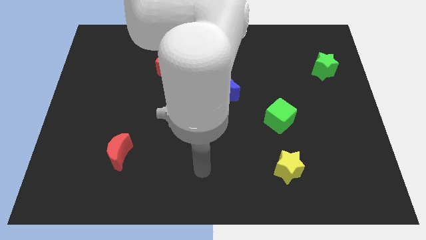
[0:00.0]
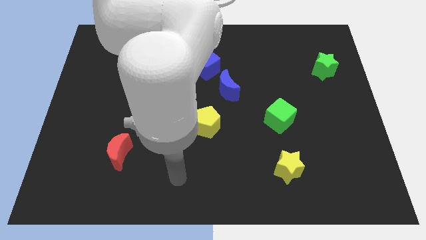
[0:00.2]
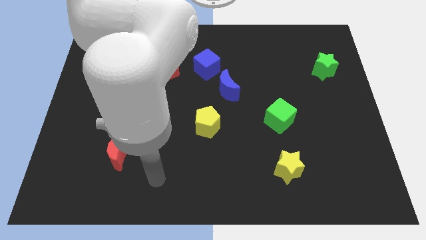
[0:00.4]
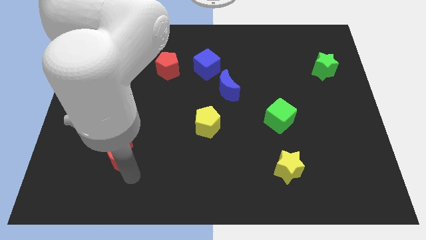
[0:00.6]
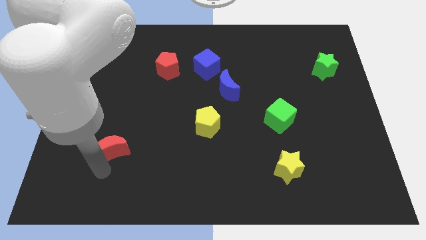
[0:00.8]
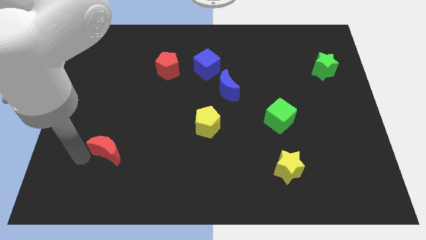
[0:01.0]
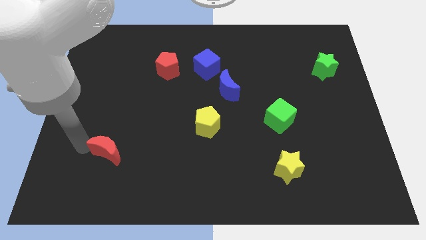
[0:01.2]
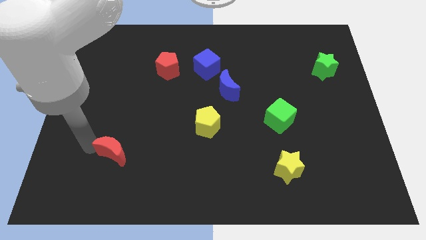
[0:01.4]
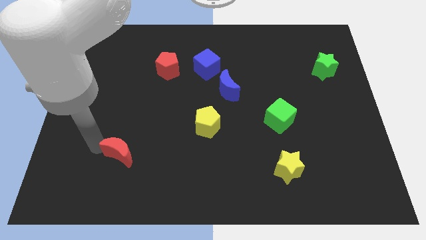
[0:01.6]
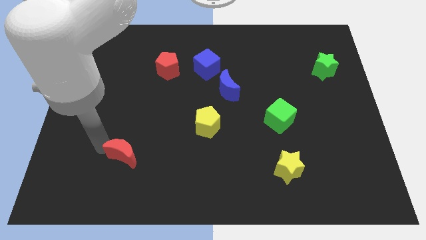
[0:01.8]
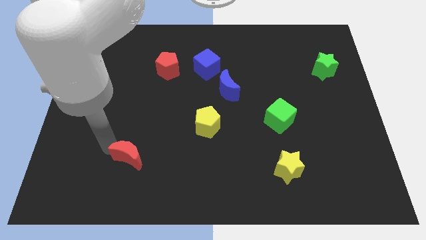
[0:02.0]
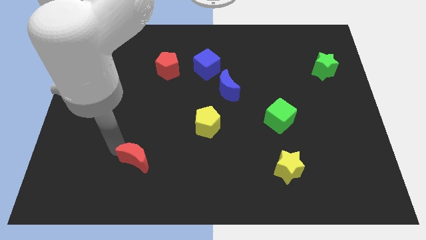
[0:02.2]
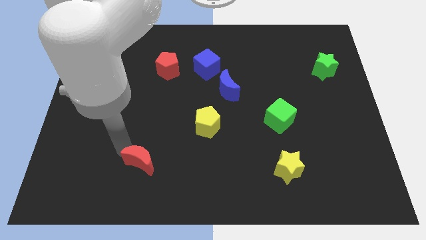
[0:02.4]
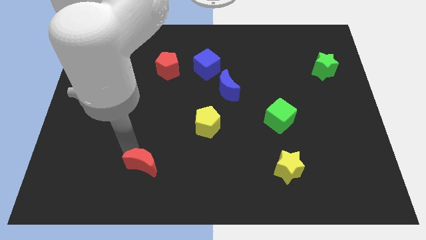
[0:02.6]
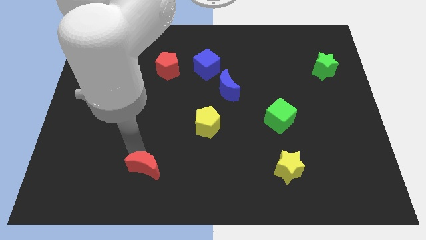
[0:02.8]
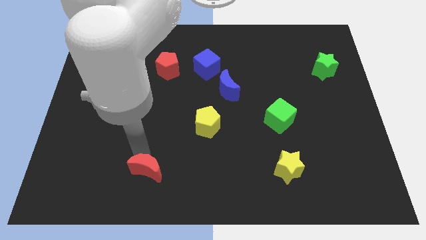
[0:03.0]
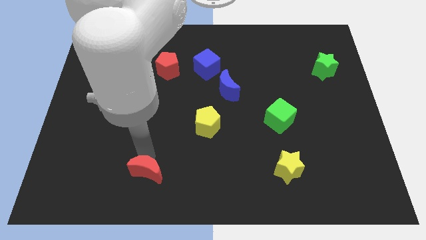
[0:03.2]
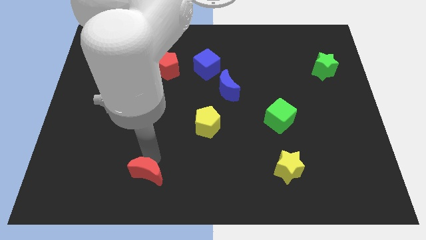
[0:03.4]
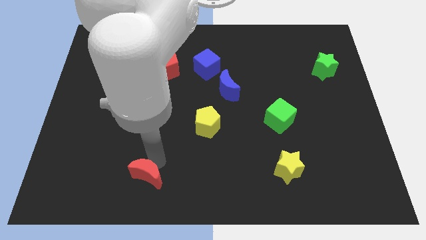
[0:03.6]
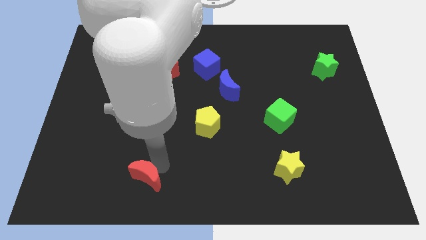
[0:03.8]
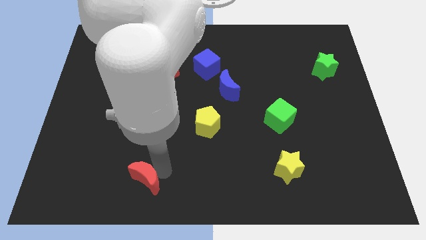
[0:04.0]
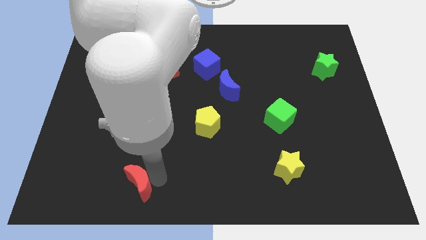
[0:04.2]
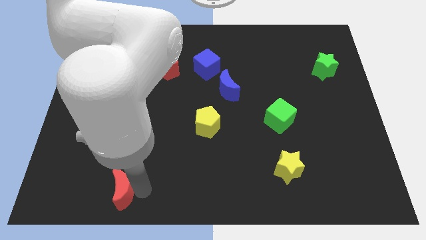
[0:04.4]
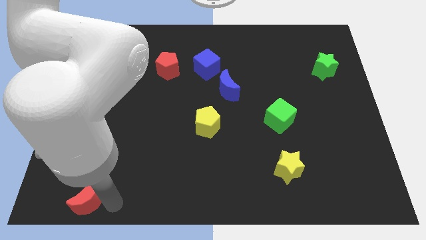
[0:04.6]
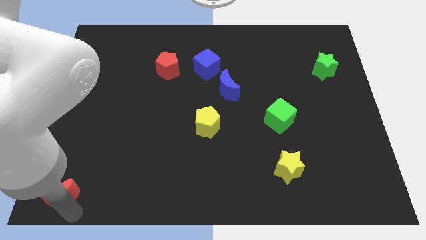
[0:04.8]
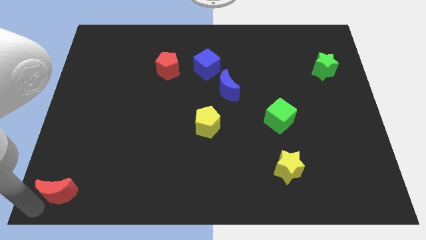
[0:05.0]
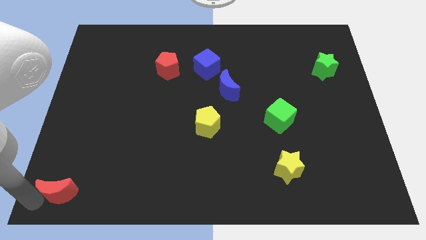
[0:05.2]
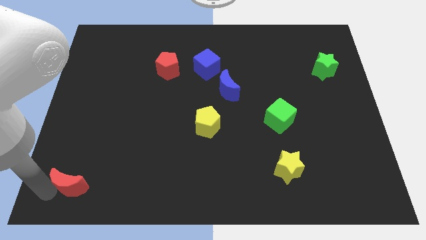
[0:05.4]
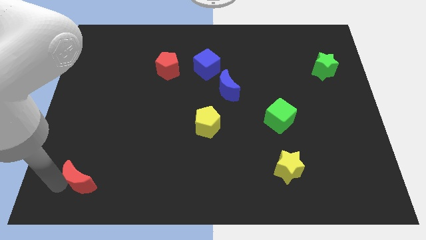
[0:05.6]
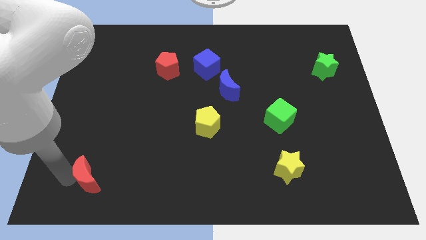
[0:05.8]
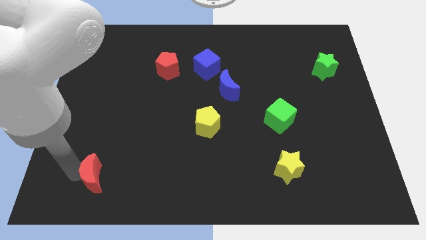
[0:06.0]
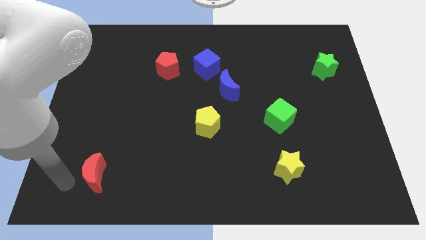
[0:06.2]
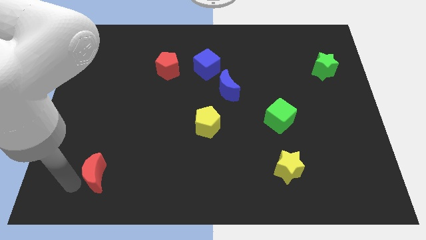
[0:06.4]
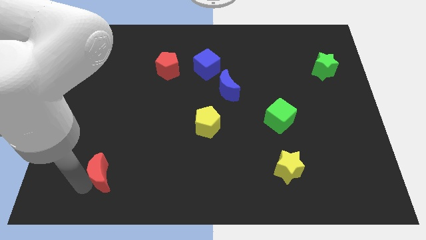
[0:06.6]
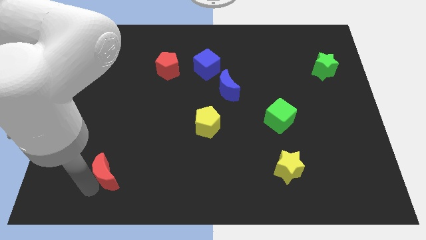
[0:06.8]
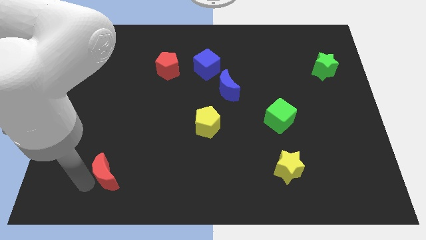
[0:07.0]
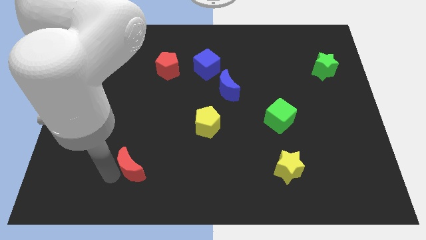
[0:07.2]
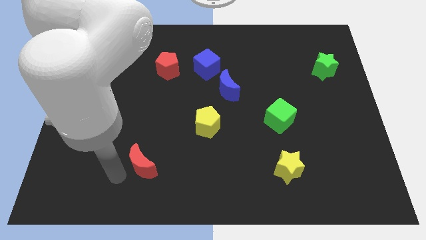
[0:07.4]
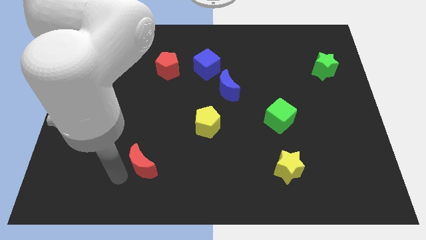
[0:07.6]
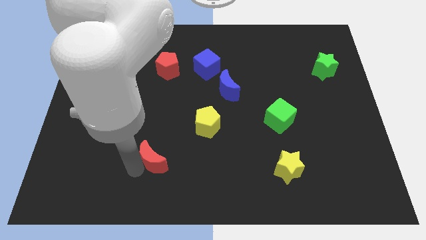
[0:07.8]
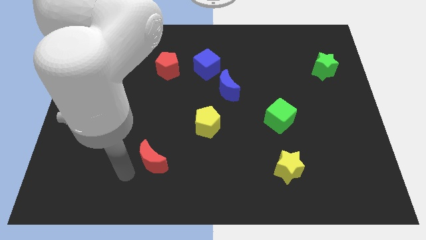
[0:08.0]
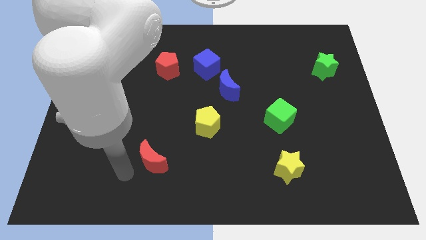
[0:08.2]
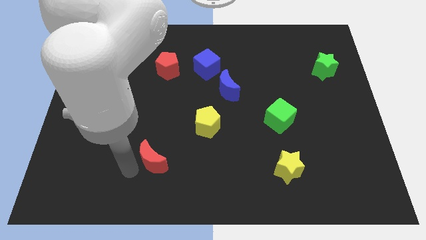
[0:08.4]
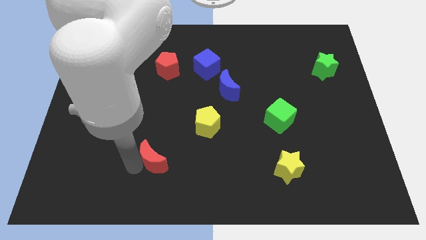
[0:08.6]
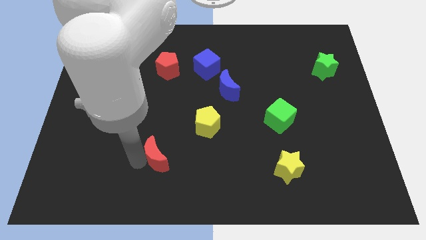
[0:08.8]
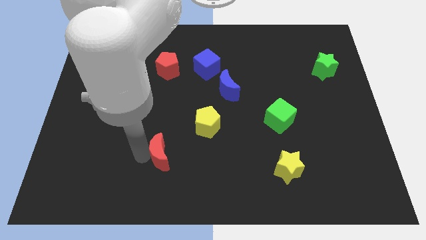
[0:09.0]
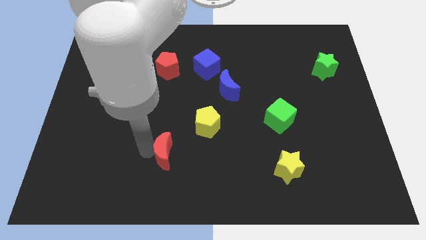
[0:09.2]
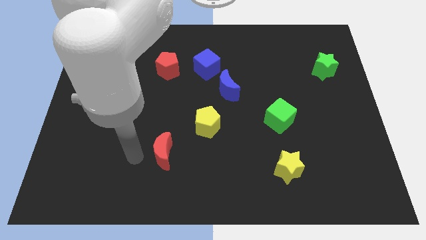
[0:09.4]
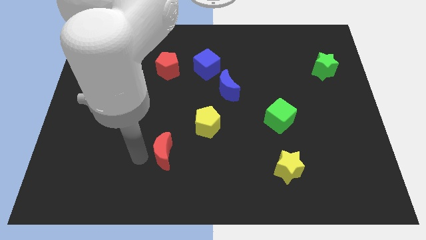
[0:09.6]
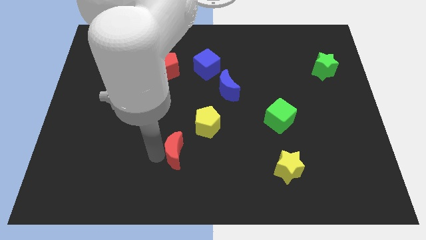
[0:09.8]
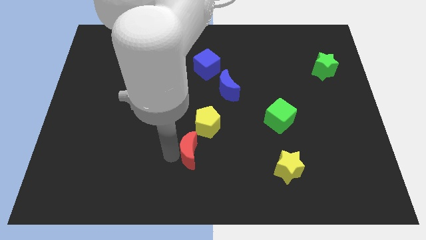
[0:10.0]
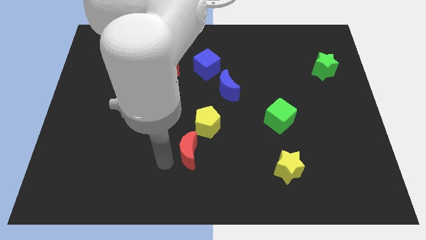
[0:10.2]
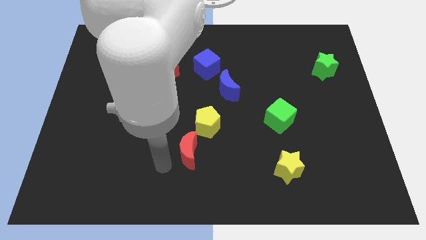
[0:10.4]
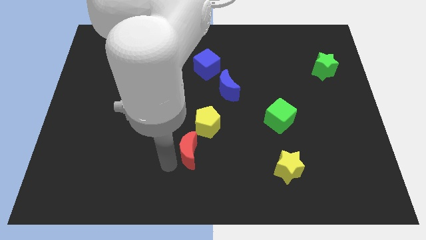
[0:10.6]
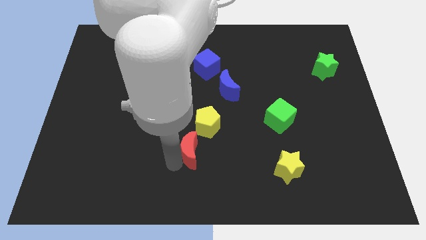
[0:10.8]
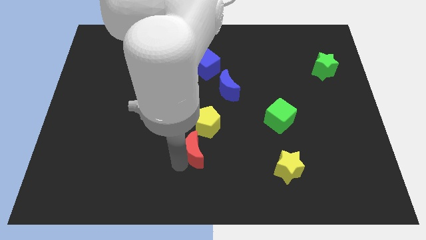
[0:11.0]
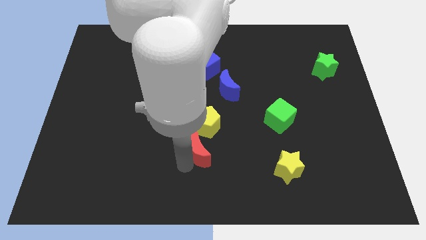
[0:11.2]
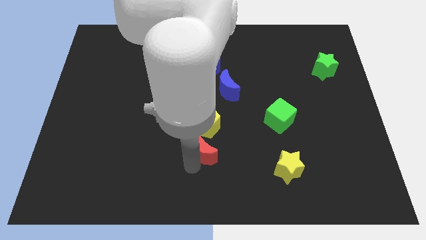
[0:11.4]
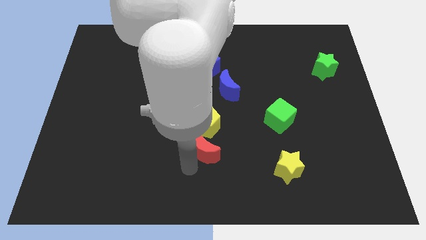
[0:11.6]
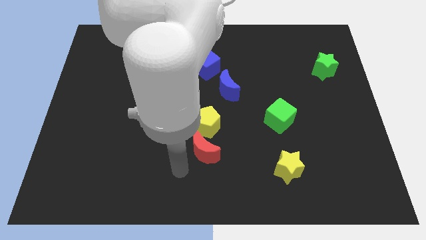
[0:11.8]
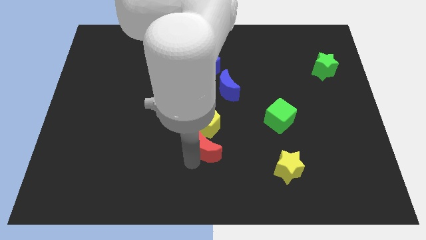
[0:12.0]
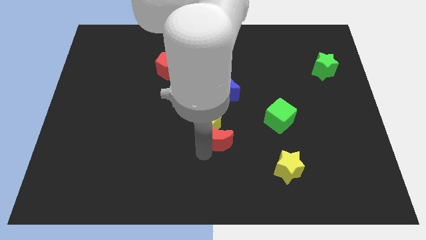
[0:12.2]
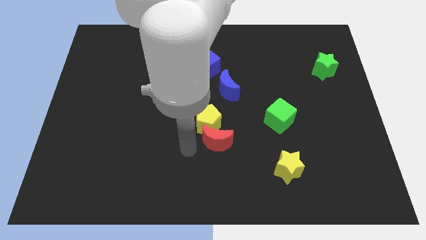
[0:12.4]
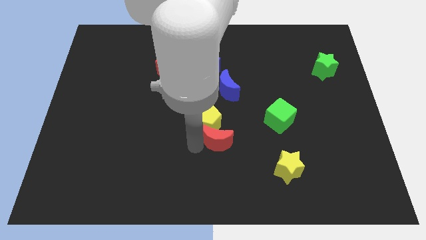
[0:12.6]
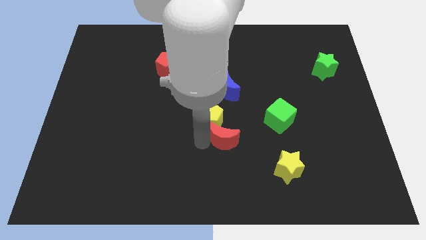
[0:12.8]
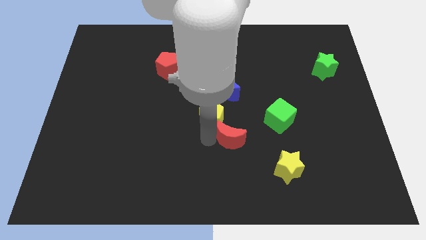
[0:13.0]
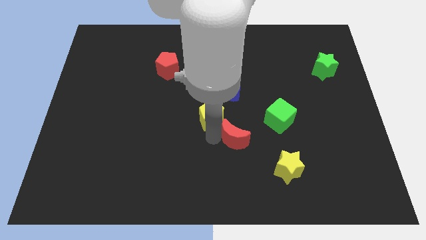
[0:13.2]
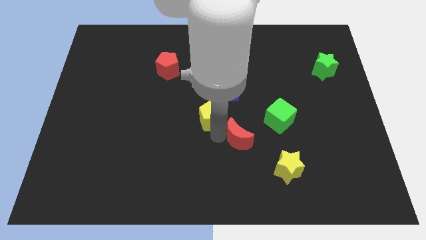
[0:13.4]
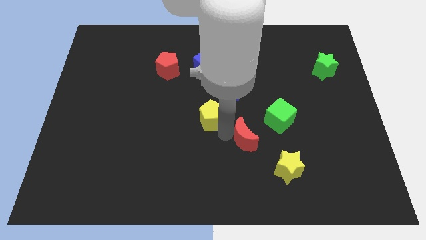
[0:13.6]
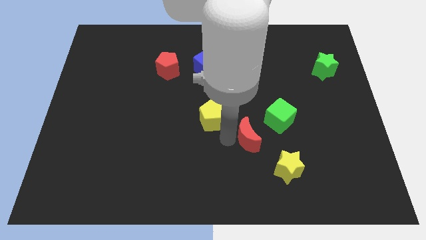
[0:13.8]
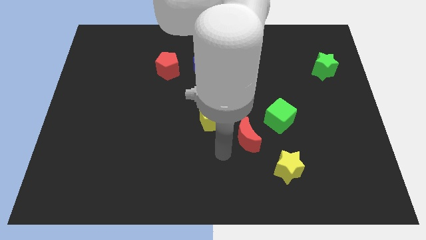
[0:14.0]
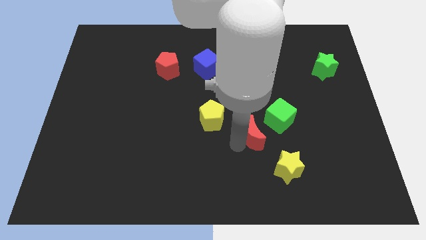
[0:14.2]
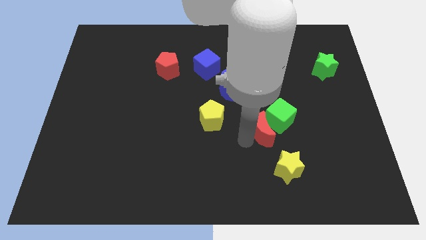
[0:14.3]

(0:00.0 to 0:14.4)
slide the red moon close to the green cube

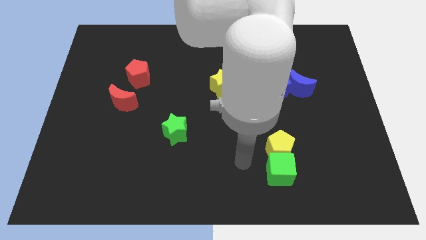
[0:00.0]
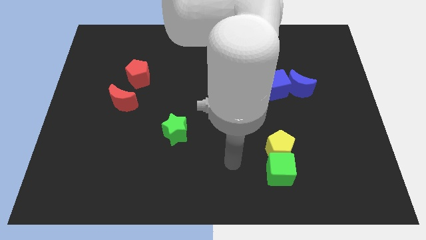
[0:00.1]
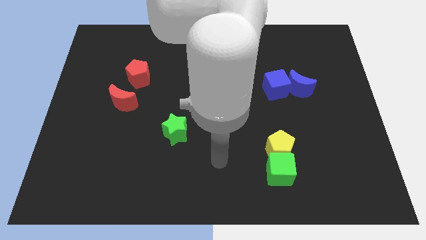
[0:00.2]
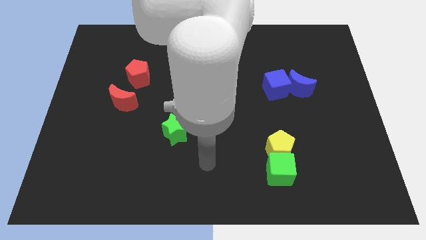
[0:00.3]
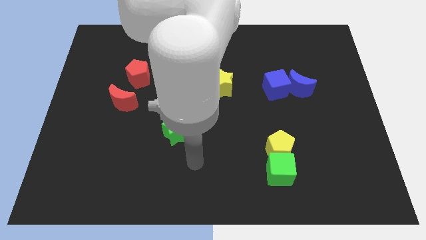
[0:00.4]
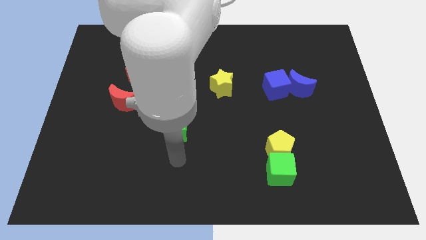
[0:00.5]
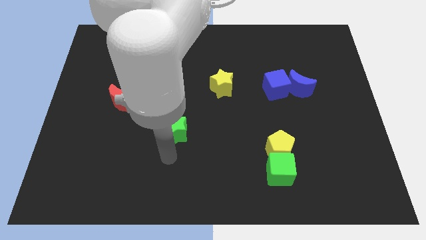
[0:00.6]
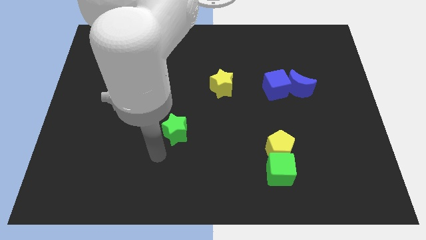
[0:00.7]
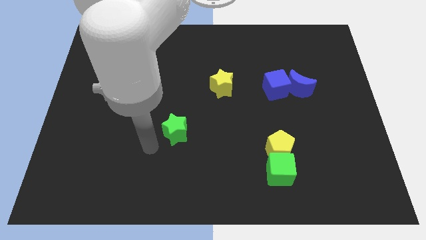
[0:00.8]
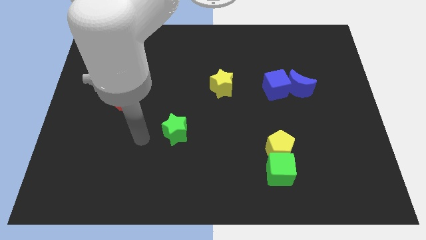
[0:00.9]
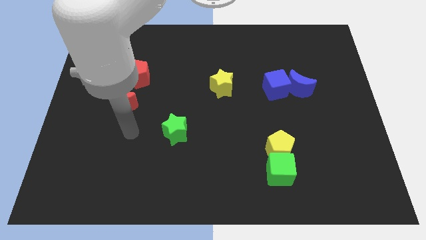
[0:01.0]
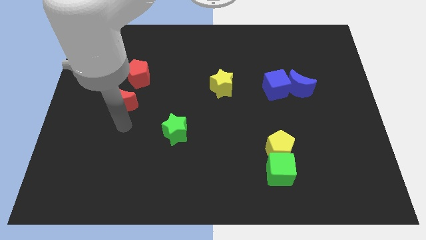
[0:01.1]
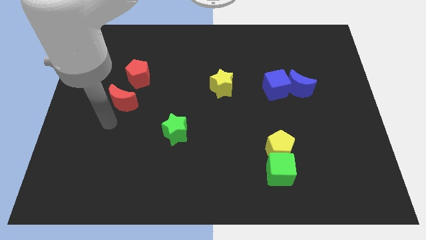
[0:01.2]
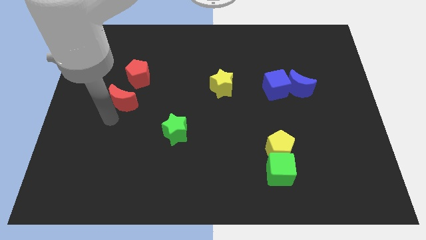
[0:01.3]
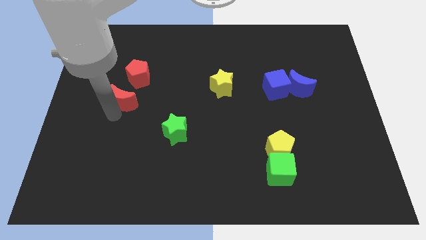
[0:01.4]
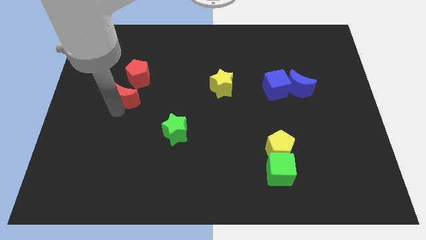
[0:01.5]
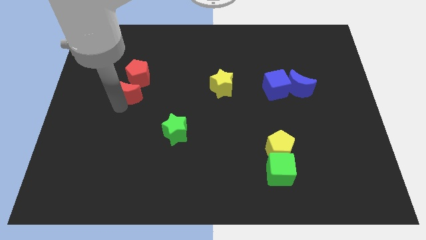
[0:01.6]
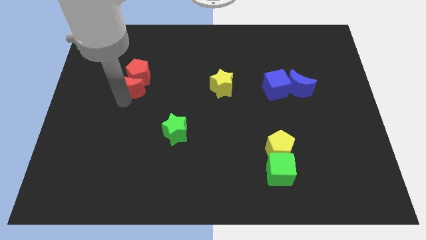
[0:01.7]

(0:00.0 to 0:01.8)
move the red moon to the red pentagon
